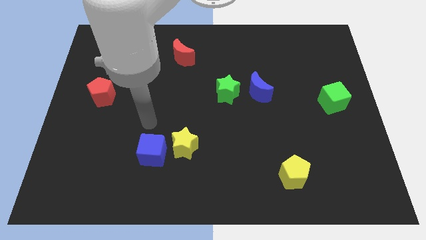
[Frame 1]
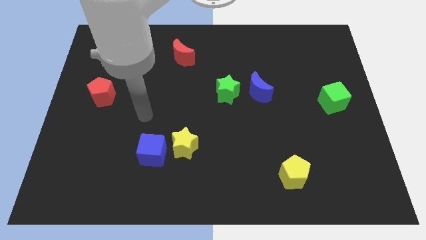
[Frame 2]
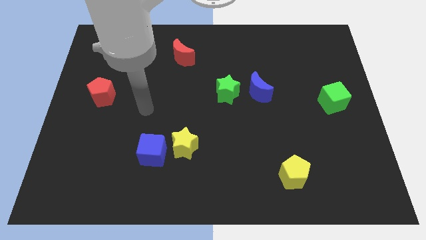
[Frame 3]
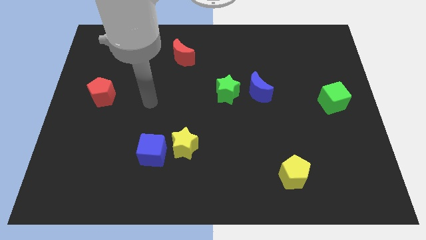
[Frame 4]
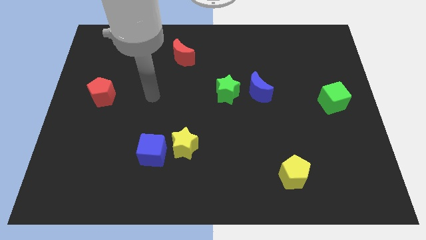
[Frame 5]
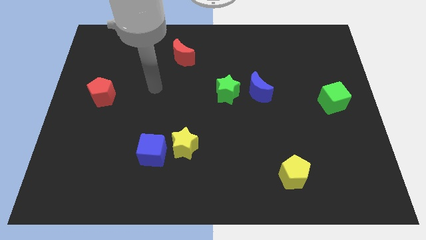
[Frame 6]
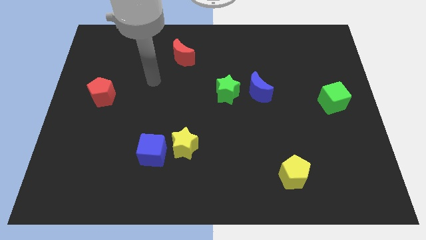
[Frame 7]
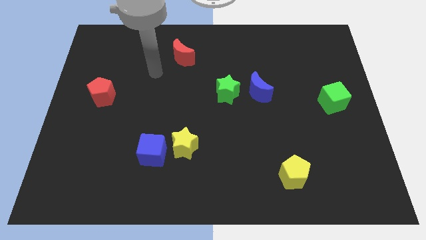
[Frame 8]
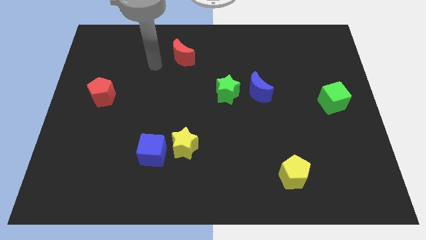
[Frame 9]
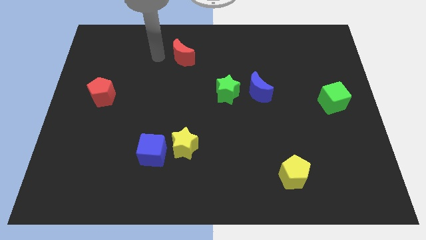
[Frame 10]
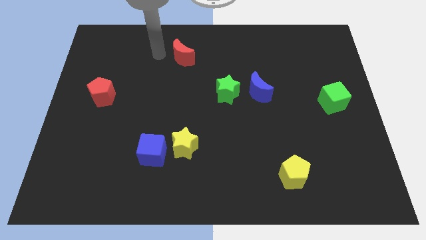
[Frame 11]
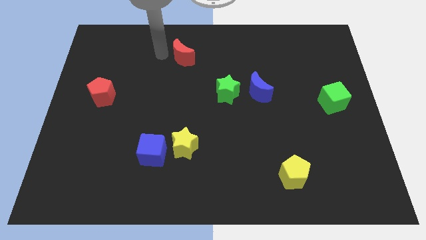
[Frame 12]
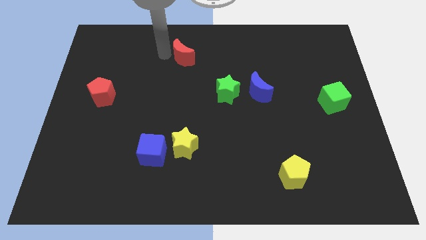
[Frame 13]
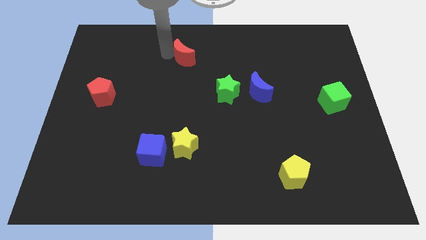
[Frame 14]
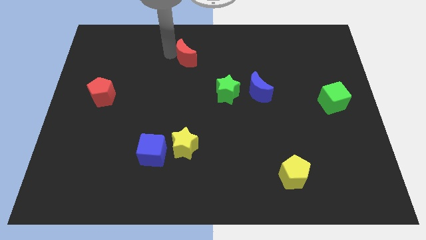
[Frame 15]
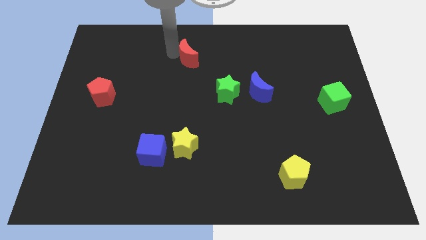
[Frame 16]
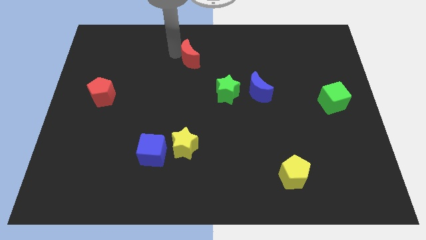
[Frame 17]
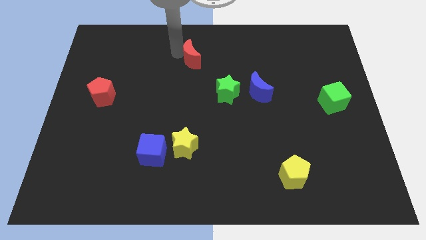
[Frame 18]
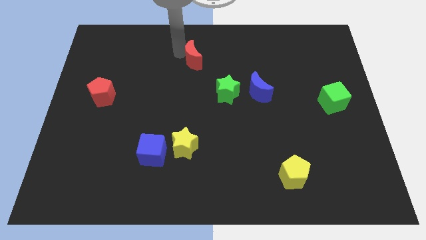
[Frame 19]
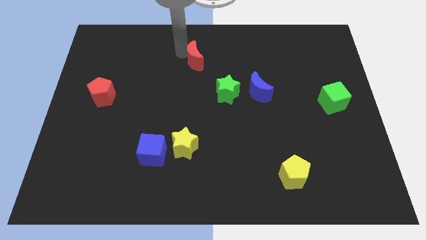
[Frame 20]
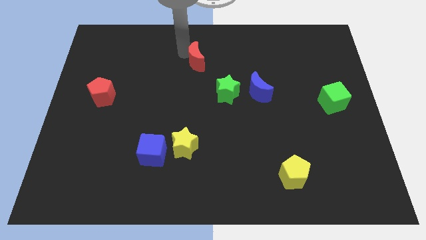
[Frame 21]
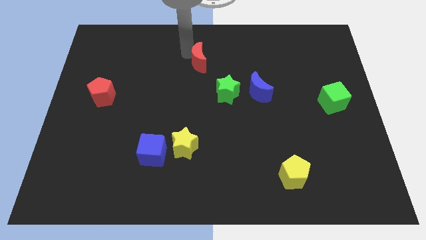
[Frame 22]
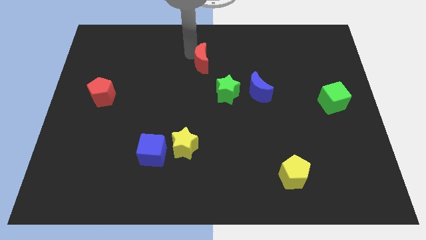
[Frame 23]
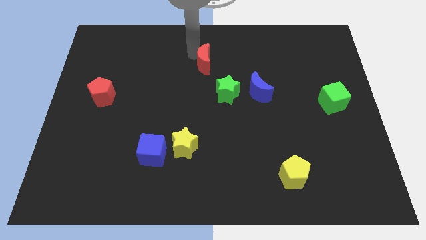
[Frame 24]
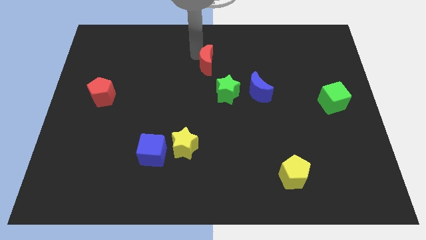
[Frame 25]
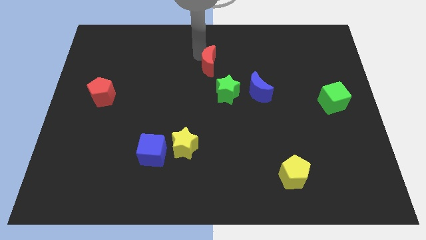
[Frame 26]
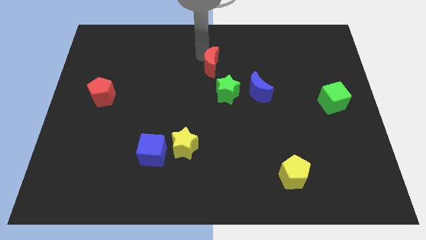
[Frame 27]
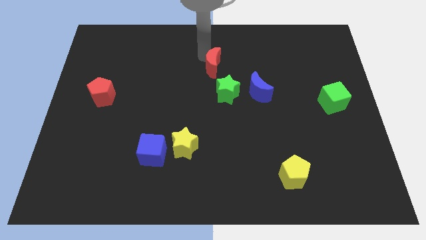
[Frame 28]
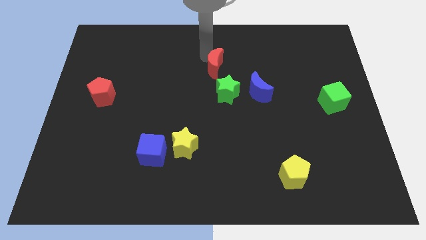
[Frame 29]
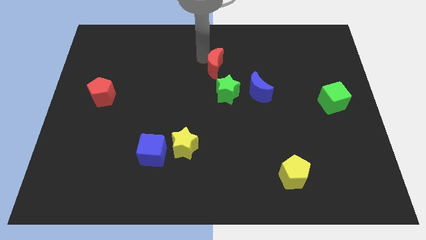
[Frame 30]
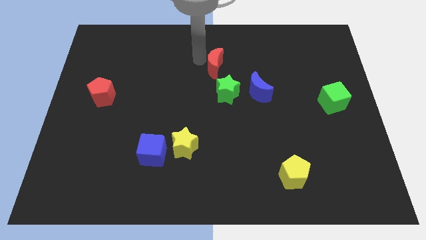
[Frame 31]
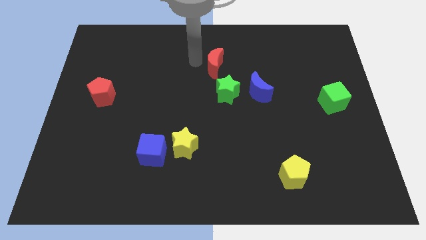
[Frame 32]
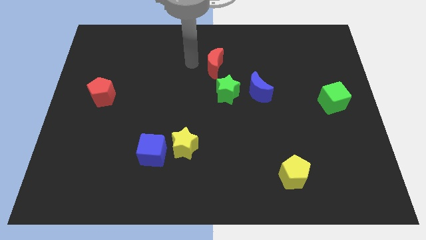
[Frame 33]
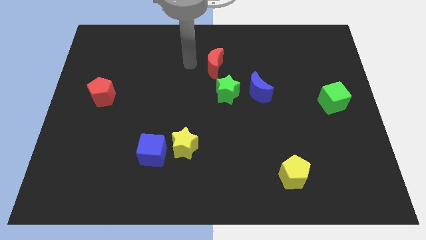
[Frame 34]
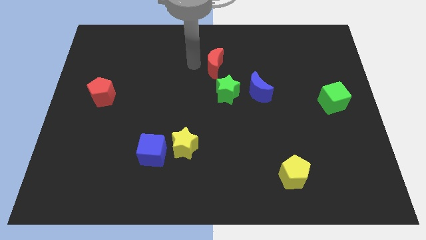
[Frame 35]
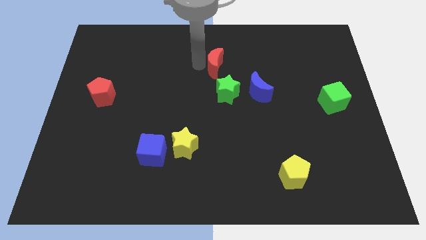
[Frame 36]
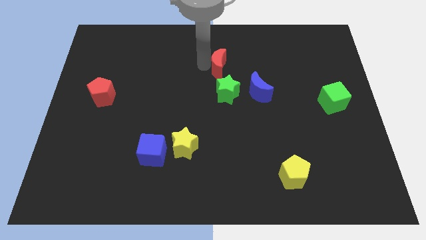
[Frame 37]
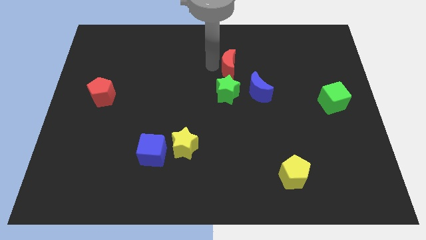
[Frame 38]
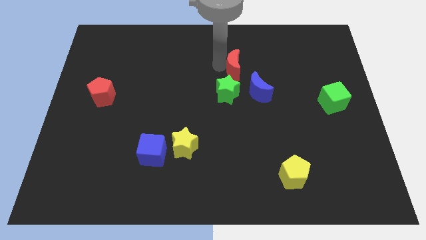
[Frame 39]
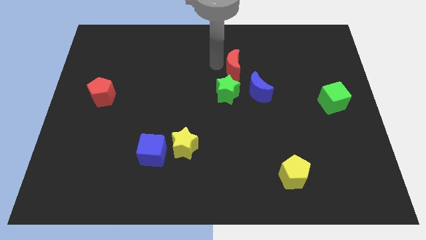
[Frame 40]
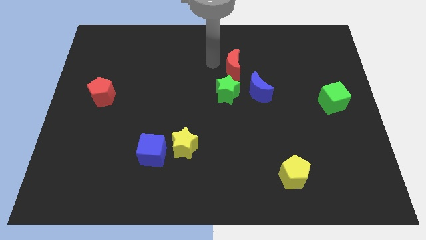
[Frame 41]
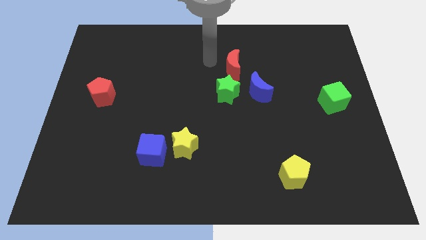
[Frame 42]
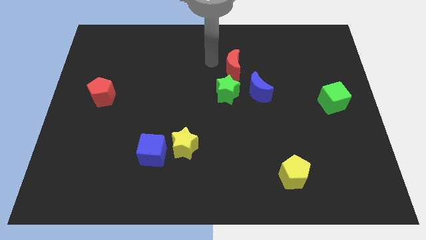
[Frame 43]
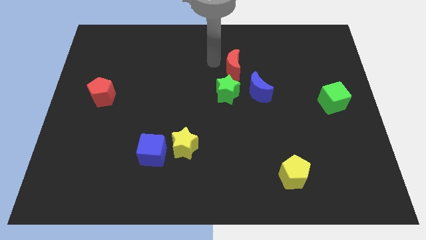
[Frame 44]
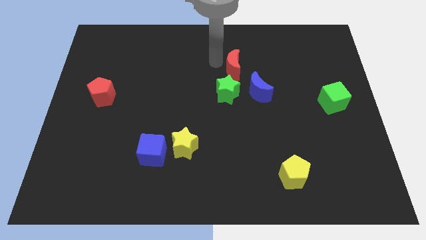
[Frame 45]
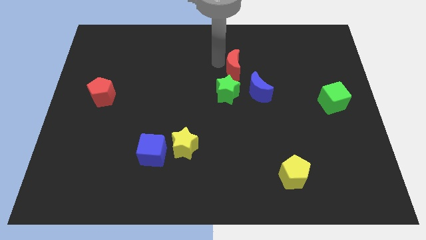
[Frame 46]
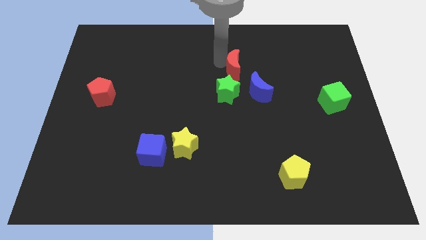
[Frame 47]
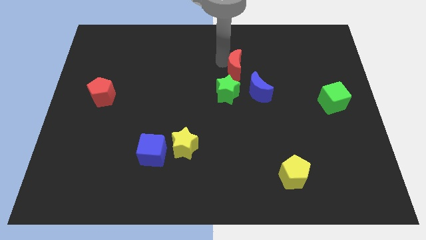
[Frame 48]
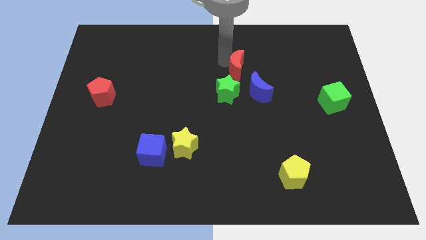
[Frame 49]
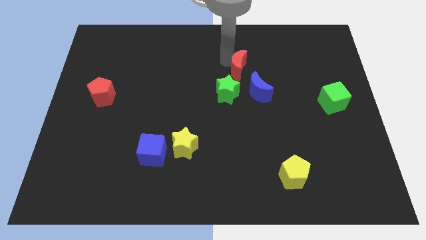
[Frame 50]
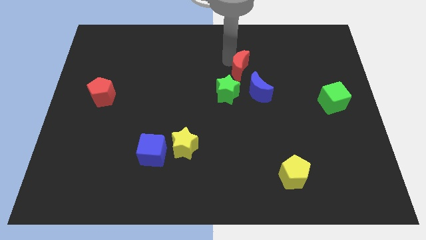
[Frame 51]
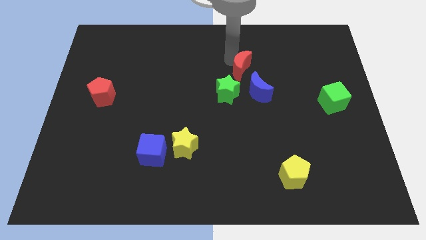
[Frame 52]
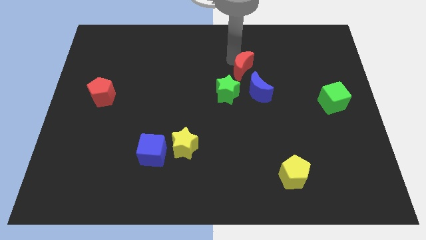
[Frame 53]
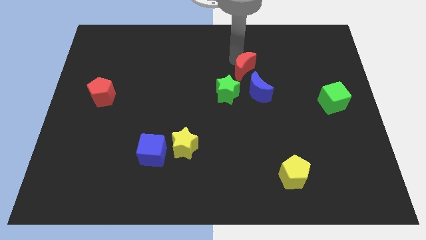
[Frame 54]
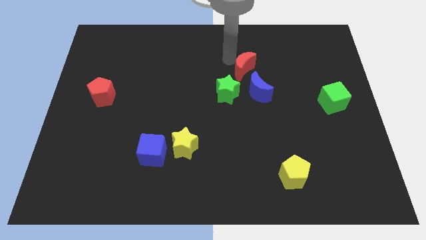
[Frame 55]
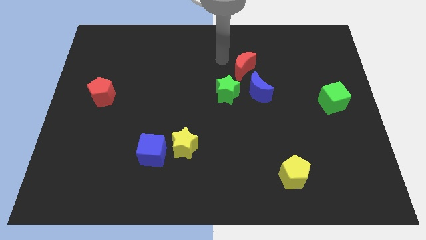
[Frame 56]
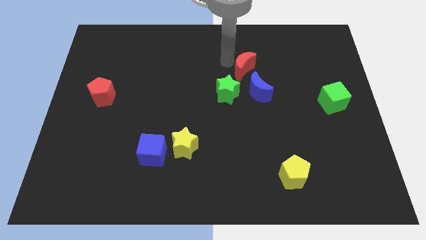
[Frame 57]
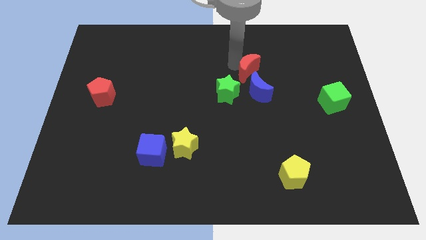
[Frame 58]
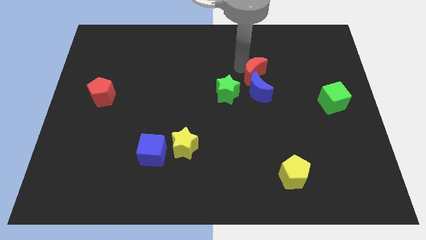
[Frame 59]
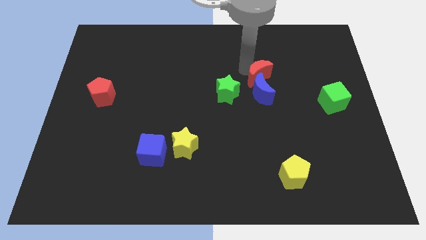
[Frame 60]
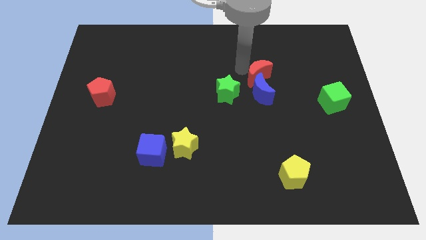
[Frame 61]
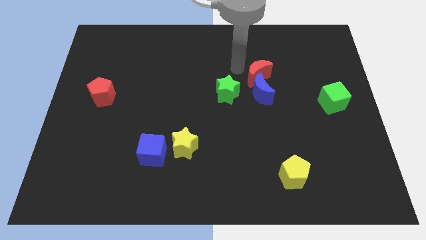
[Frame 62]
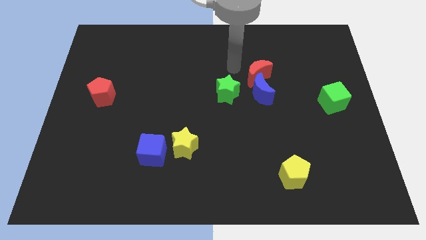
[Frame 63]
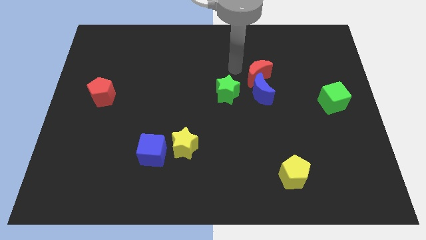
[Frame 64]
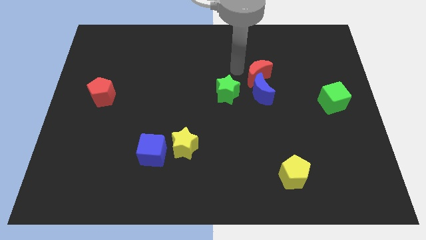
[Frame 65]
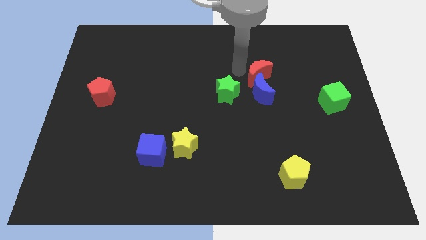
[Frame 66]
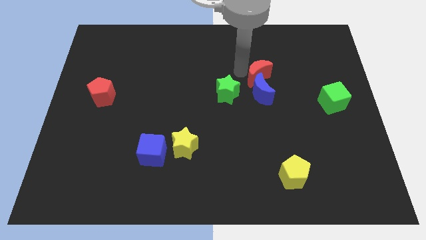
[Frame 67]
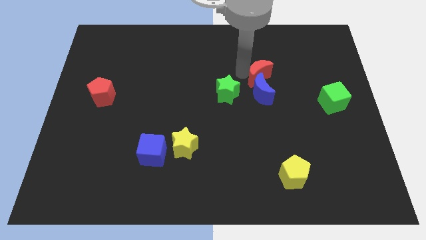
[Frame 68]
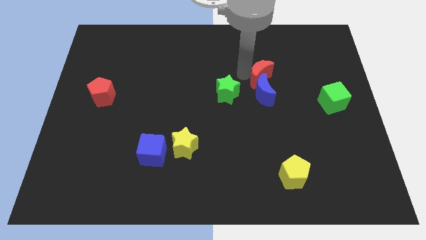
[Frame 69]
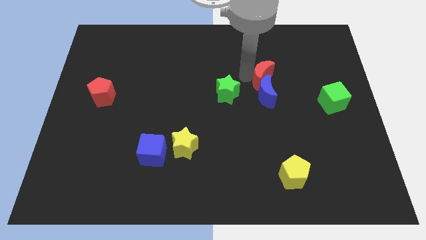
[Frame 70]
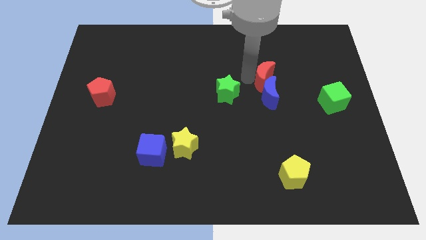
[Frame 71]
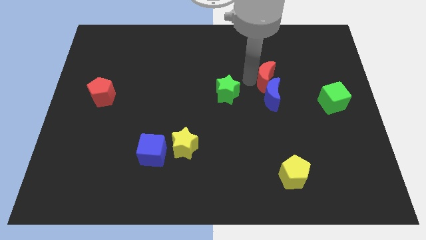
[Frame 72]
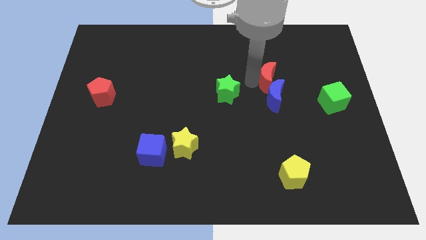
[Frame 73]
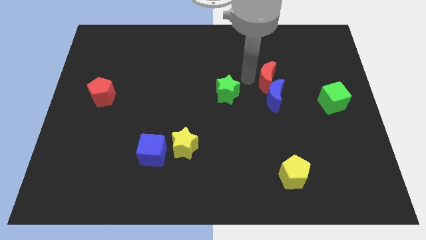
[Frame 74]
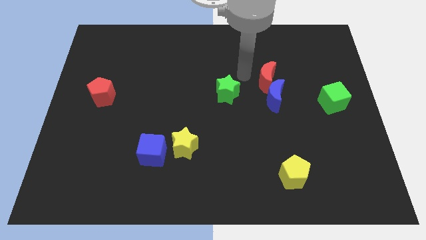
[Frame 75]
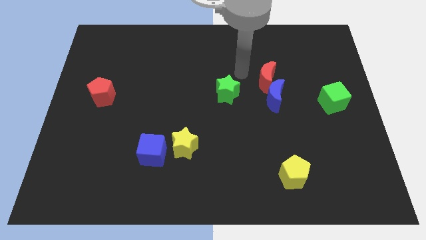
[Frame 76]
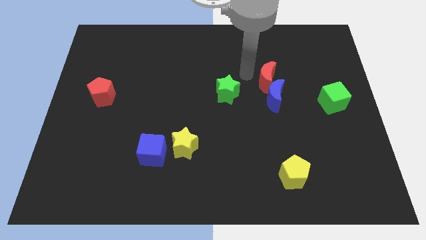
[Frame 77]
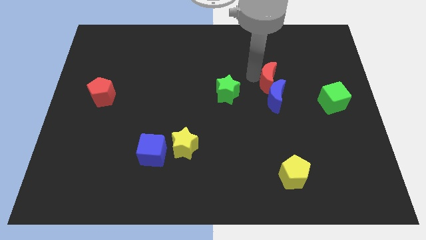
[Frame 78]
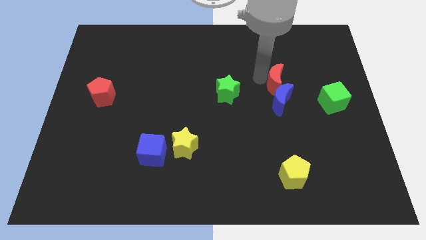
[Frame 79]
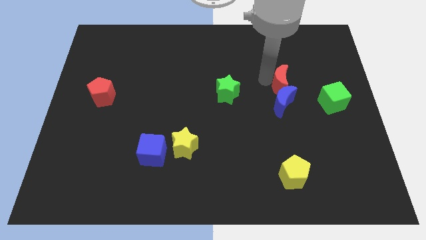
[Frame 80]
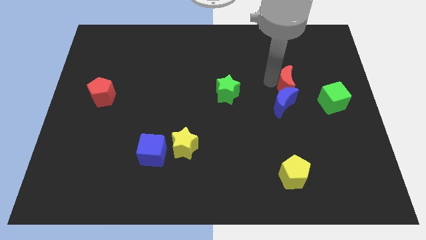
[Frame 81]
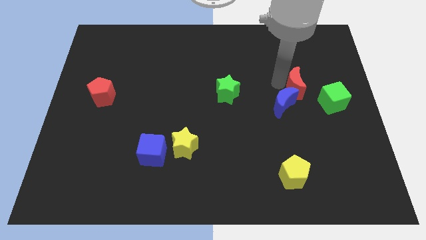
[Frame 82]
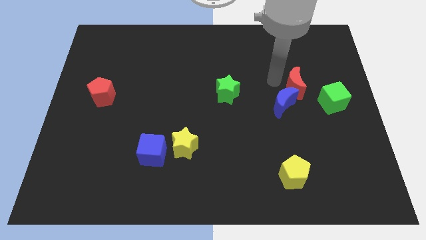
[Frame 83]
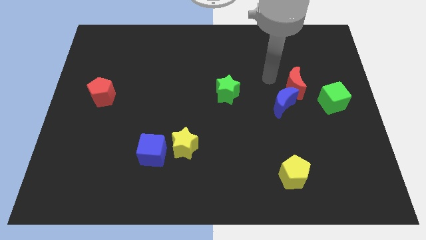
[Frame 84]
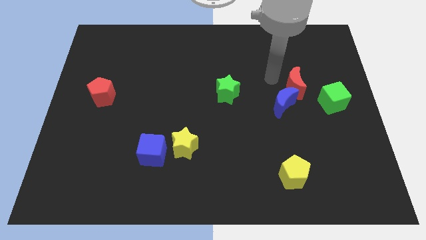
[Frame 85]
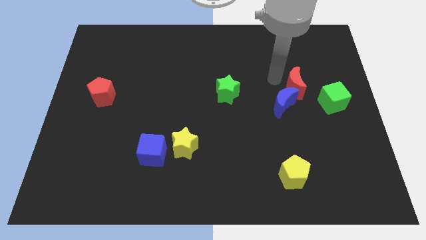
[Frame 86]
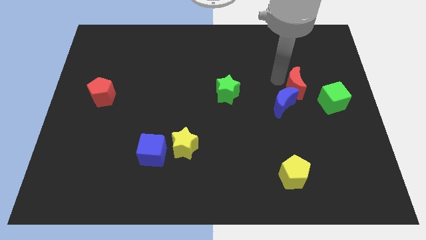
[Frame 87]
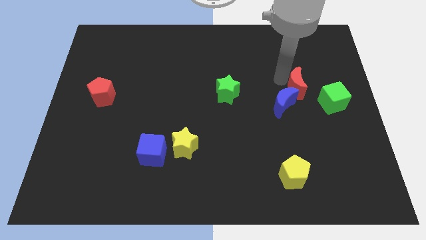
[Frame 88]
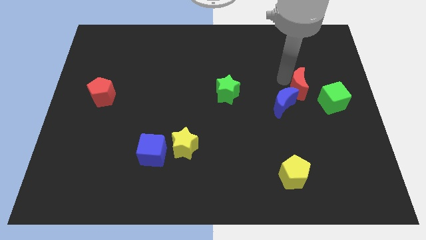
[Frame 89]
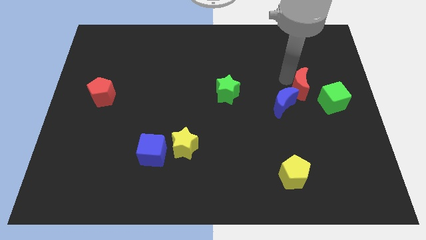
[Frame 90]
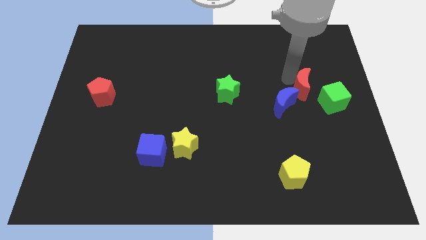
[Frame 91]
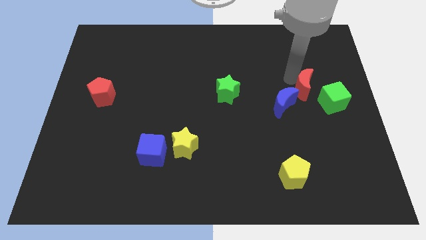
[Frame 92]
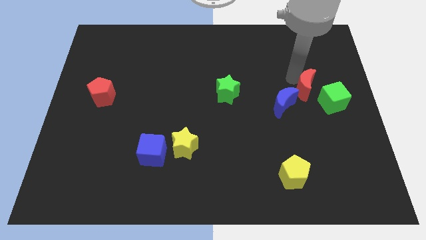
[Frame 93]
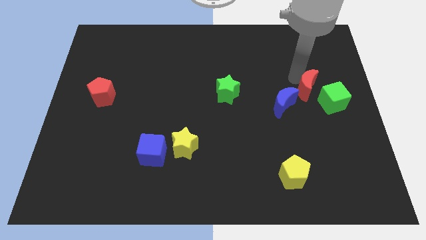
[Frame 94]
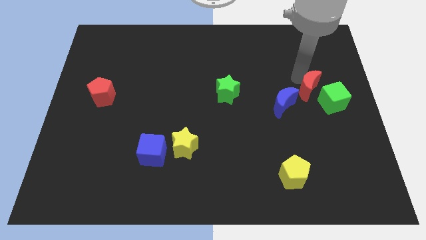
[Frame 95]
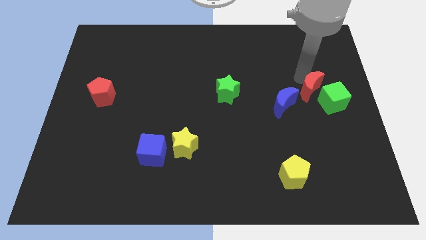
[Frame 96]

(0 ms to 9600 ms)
push the red moon to the green cube
